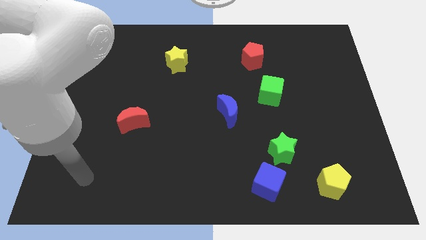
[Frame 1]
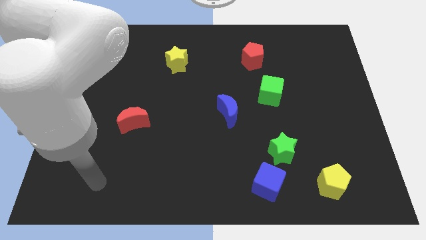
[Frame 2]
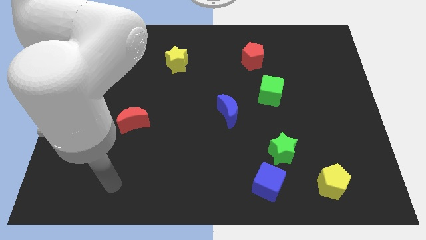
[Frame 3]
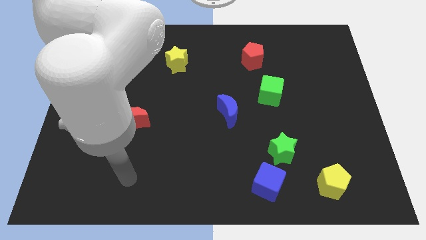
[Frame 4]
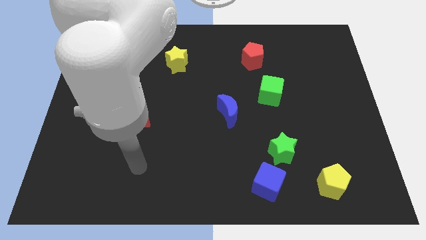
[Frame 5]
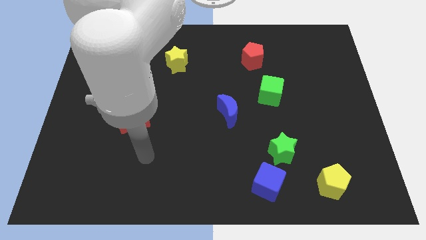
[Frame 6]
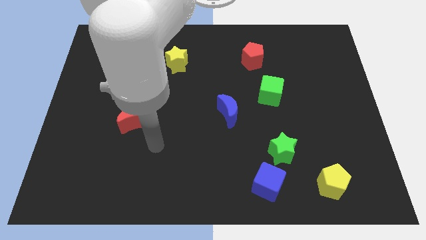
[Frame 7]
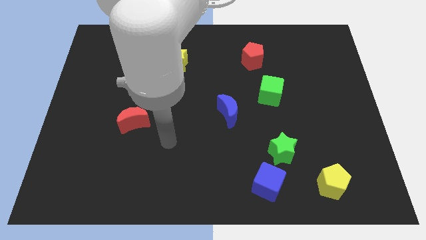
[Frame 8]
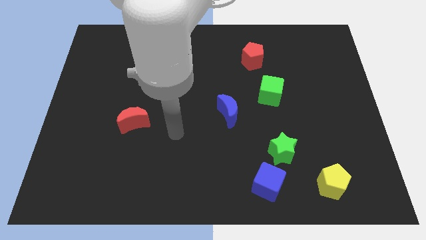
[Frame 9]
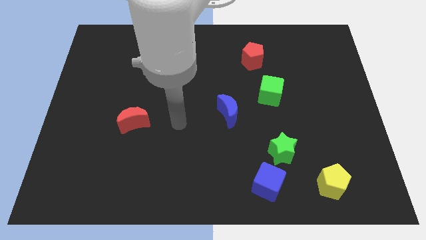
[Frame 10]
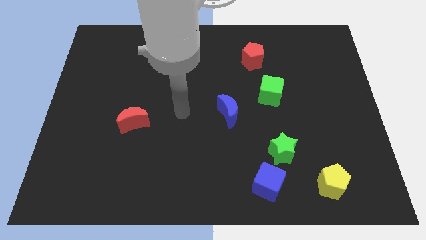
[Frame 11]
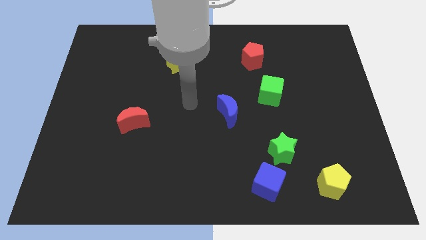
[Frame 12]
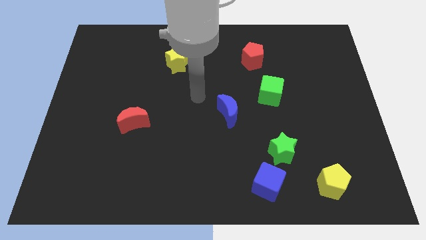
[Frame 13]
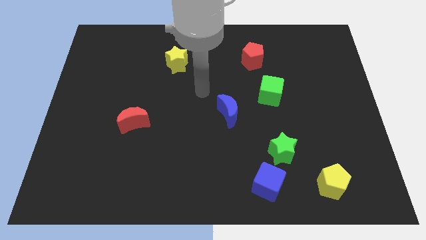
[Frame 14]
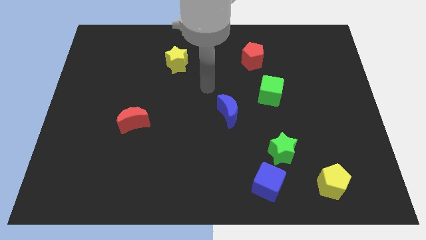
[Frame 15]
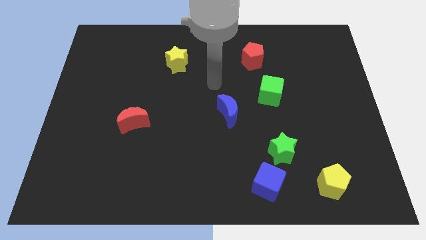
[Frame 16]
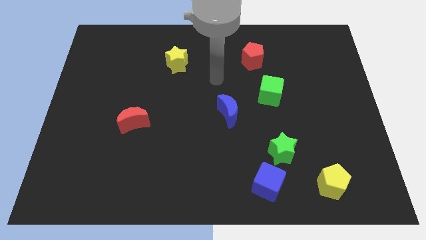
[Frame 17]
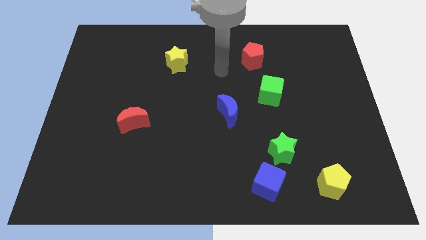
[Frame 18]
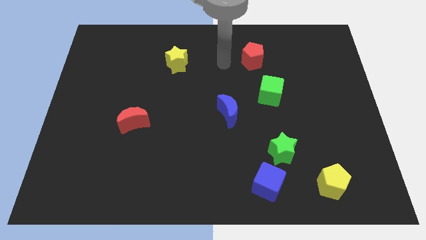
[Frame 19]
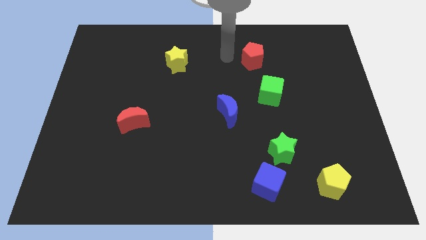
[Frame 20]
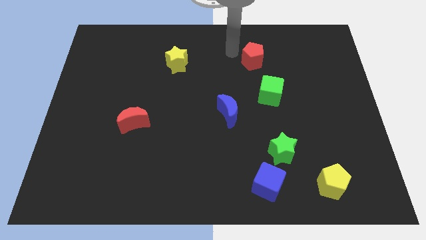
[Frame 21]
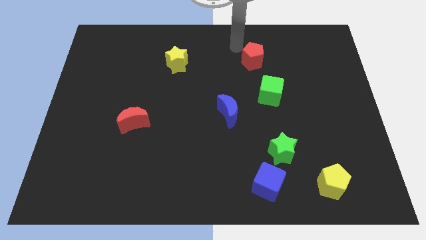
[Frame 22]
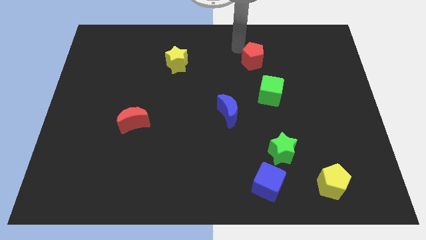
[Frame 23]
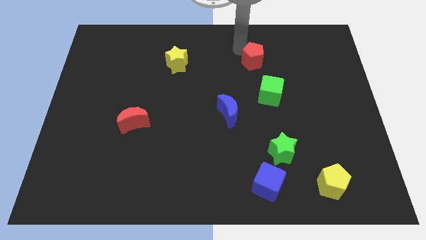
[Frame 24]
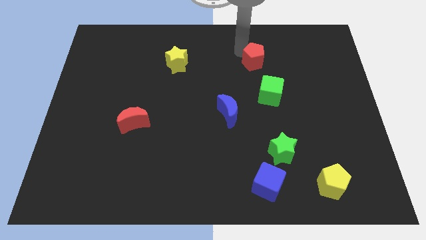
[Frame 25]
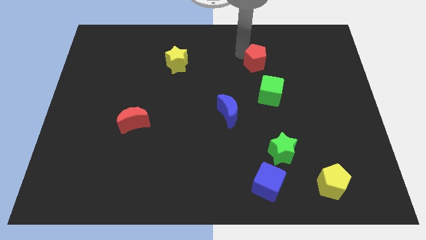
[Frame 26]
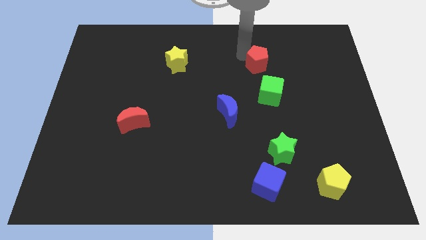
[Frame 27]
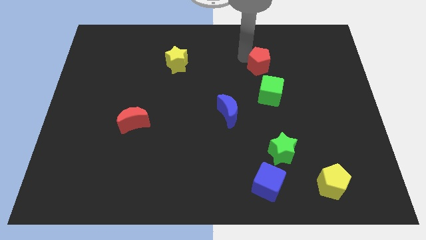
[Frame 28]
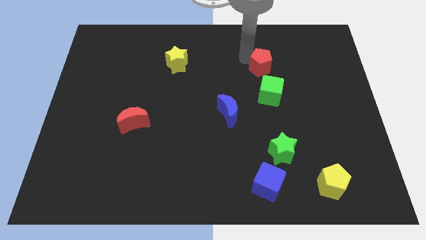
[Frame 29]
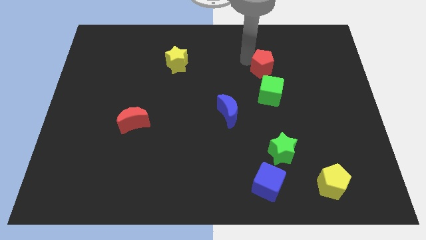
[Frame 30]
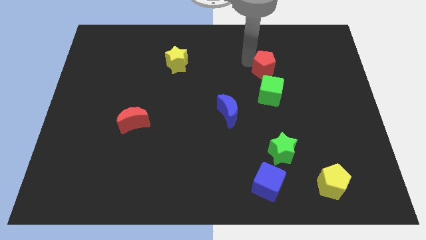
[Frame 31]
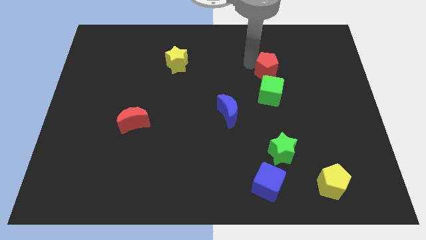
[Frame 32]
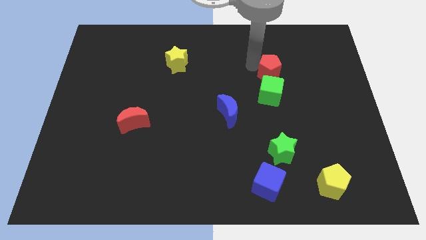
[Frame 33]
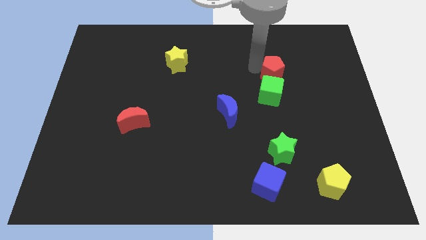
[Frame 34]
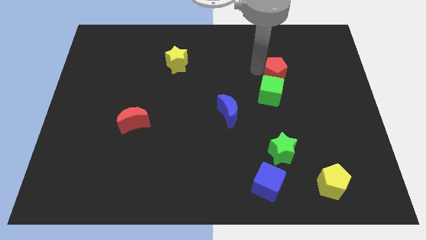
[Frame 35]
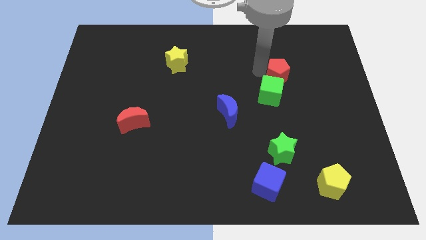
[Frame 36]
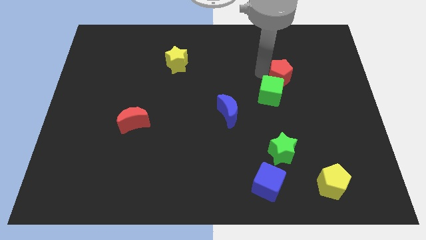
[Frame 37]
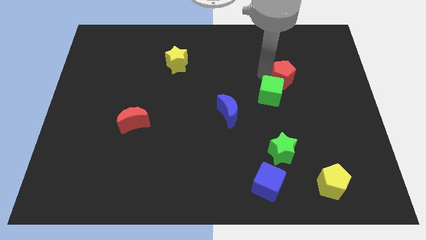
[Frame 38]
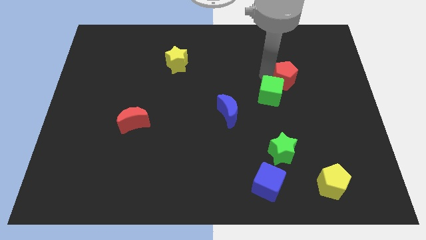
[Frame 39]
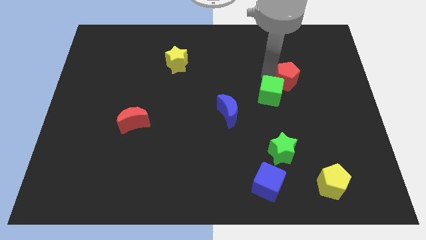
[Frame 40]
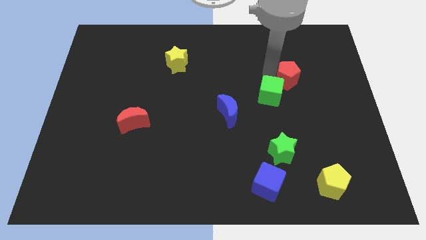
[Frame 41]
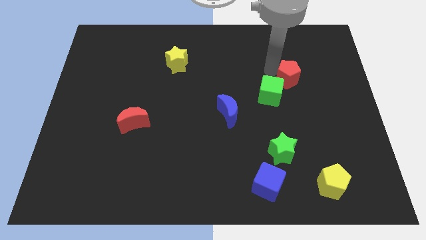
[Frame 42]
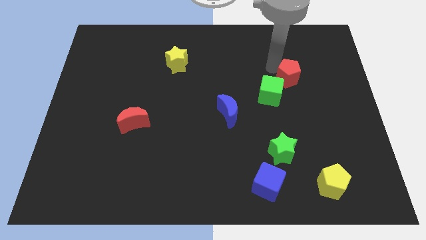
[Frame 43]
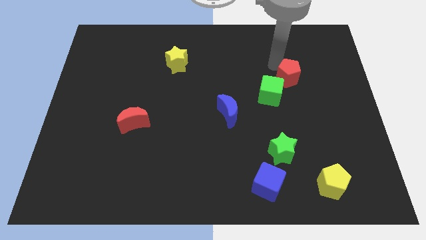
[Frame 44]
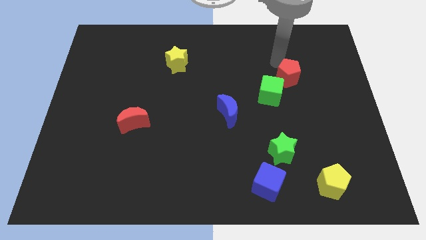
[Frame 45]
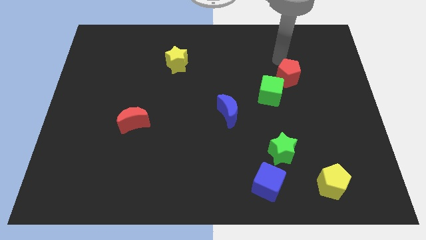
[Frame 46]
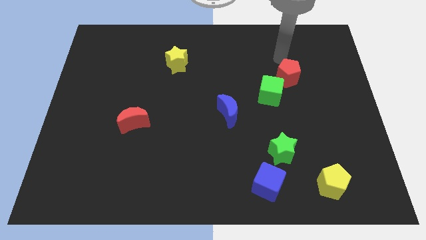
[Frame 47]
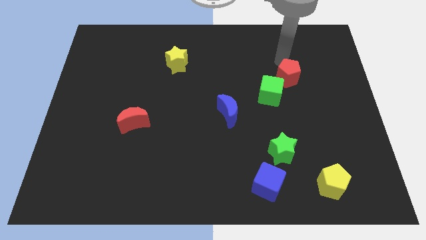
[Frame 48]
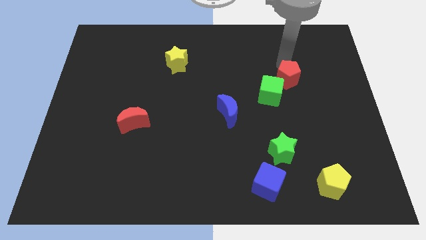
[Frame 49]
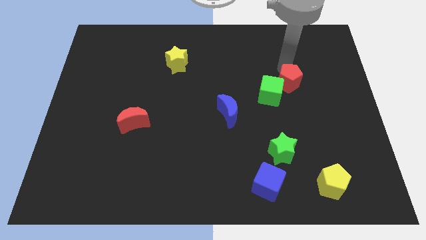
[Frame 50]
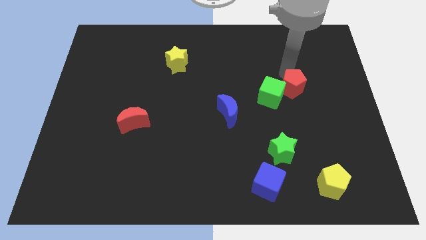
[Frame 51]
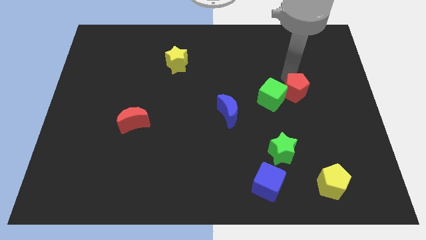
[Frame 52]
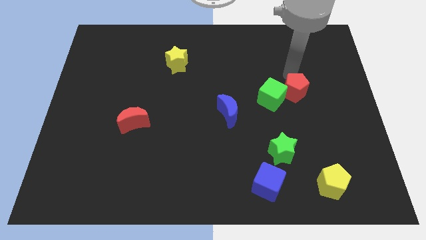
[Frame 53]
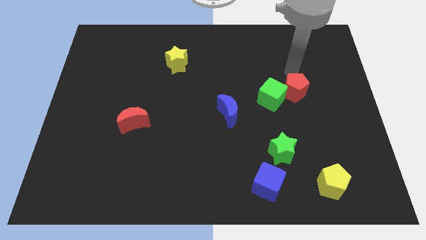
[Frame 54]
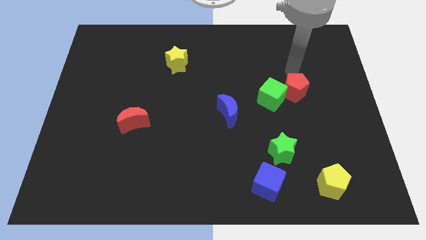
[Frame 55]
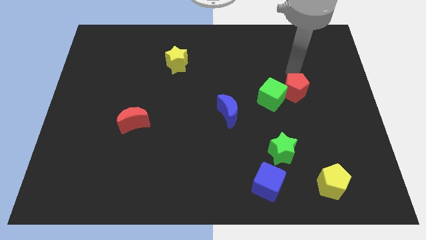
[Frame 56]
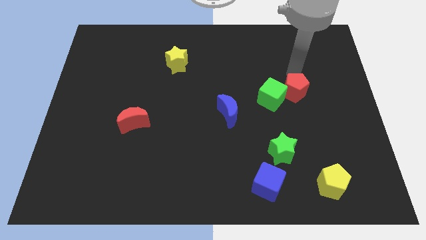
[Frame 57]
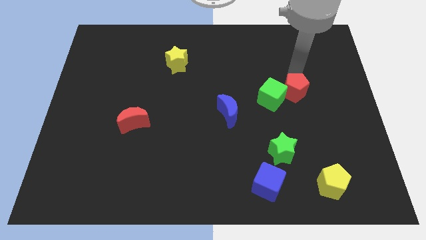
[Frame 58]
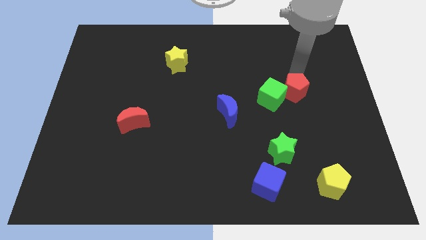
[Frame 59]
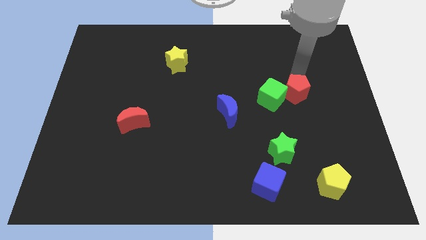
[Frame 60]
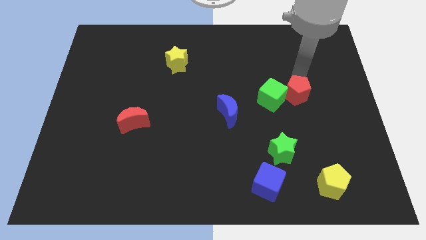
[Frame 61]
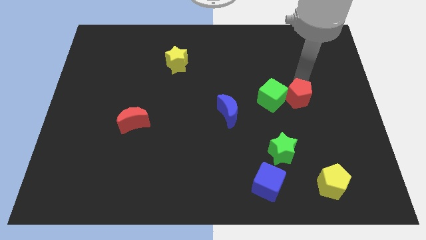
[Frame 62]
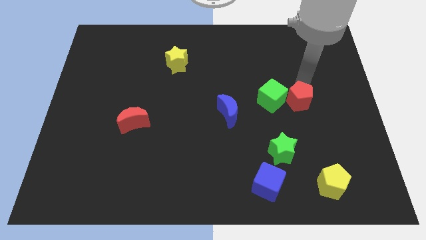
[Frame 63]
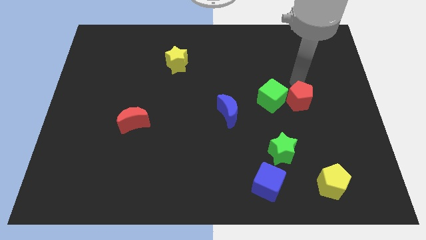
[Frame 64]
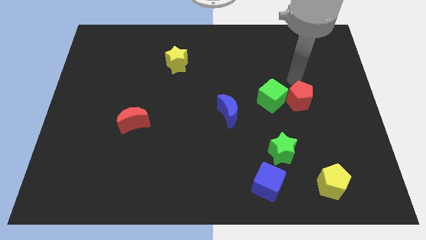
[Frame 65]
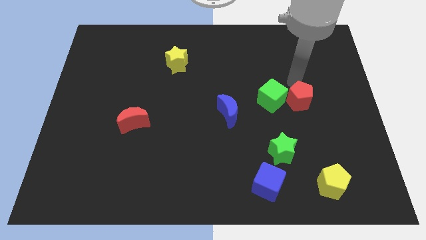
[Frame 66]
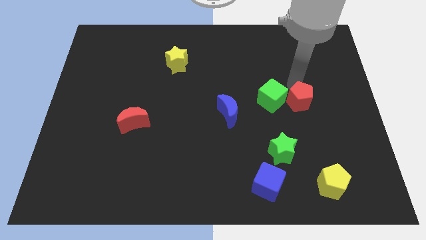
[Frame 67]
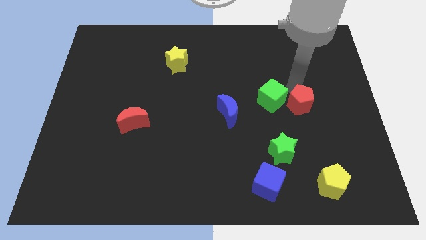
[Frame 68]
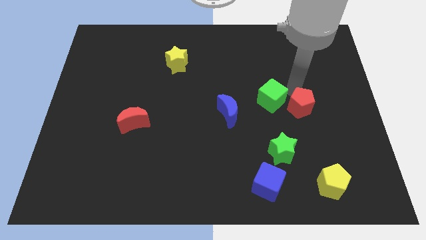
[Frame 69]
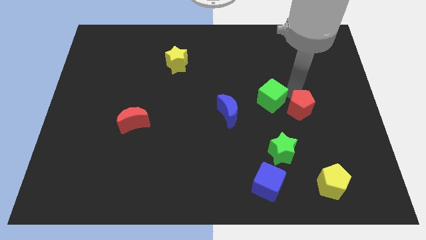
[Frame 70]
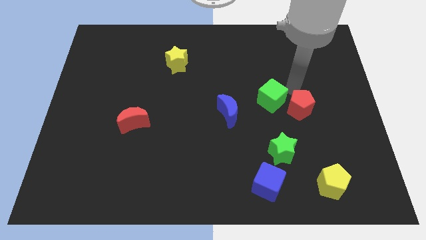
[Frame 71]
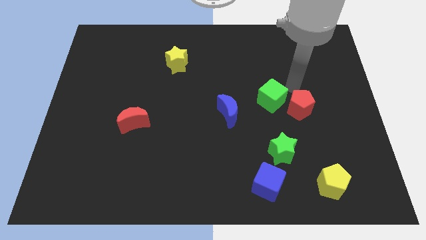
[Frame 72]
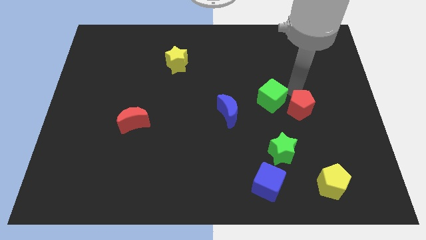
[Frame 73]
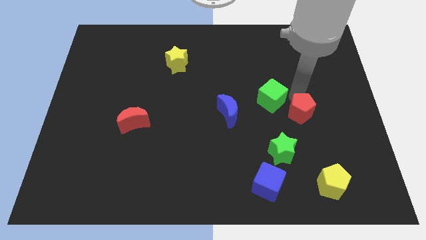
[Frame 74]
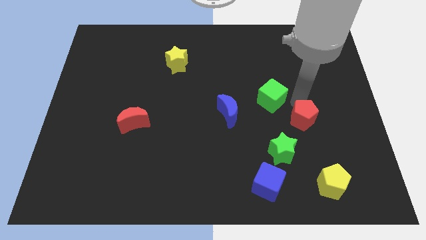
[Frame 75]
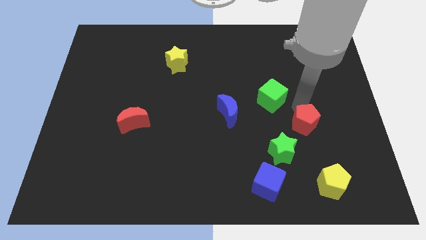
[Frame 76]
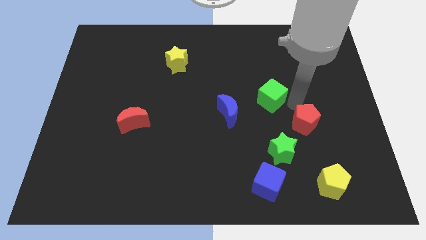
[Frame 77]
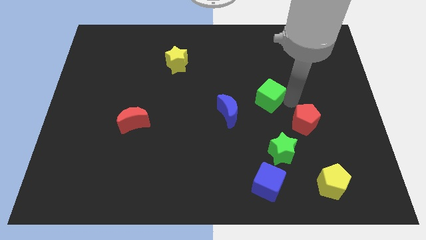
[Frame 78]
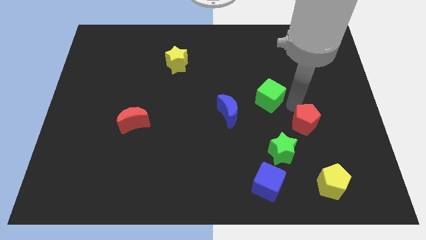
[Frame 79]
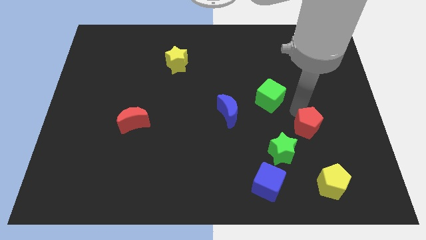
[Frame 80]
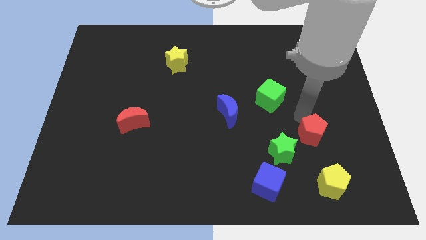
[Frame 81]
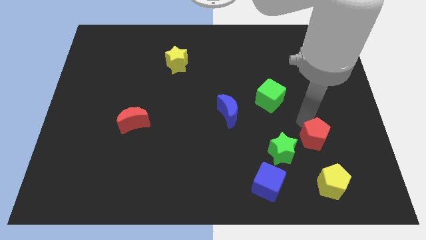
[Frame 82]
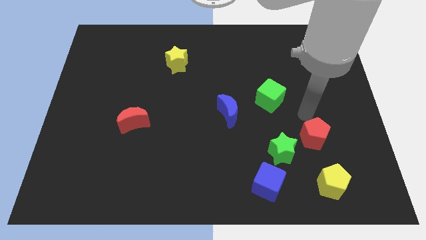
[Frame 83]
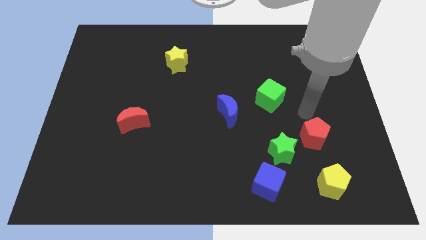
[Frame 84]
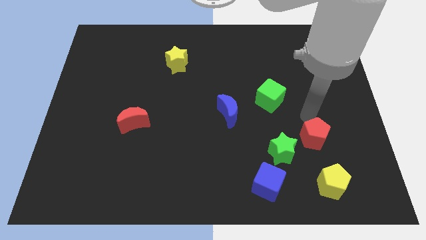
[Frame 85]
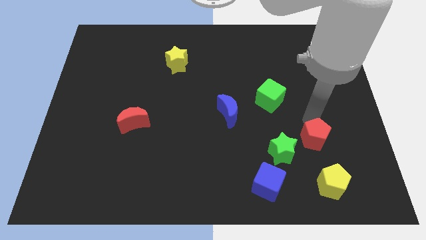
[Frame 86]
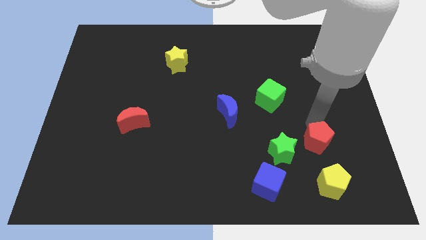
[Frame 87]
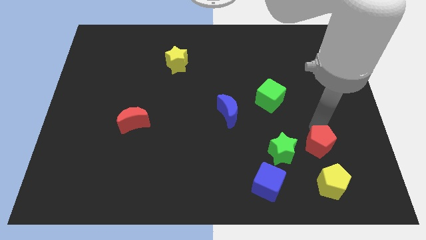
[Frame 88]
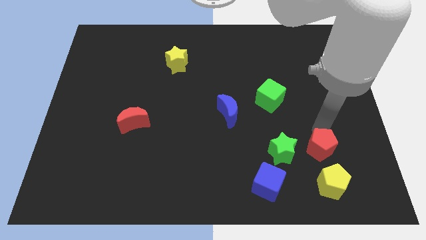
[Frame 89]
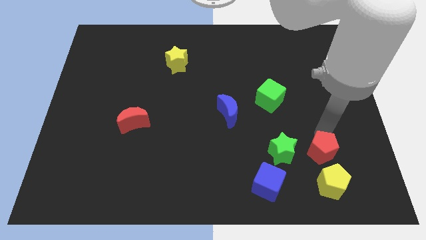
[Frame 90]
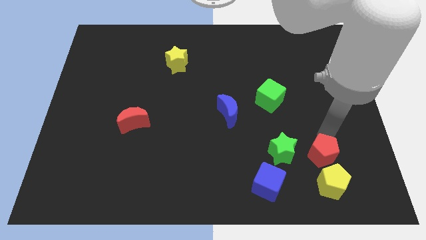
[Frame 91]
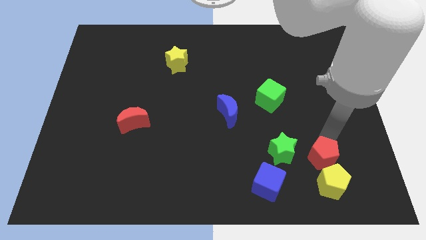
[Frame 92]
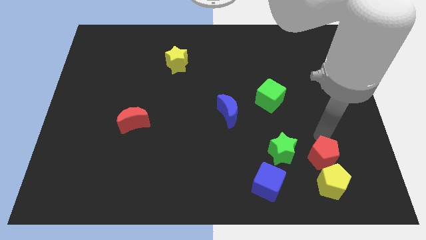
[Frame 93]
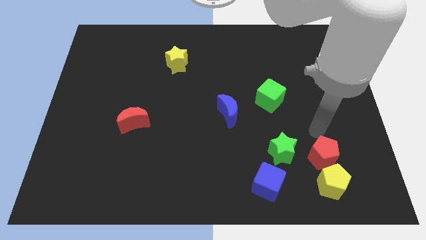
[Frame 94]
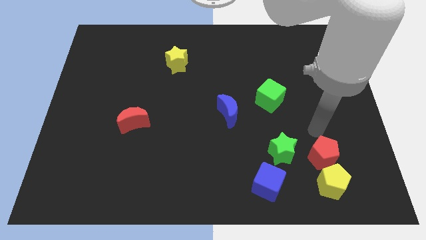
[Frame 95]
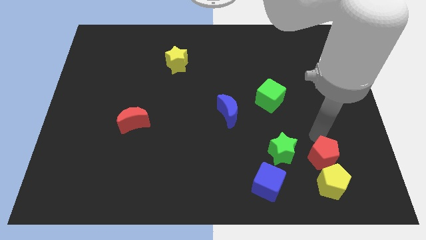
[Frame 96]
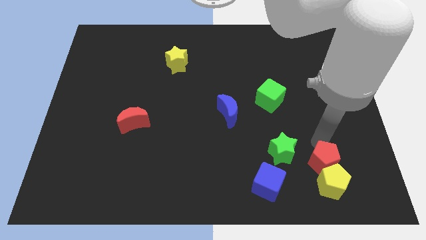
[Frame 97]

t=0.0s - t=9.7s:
slide the red pentagon close to the yellow pentagon
